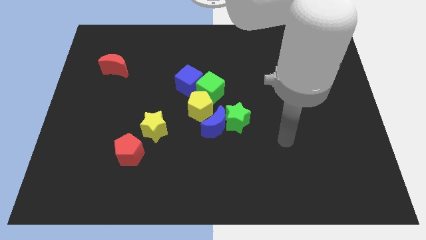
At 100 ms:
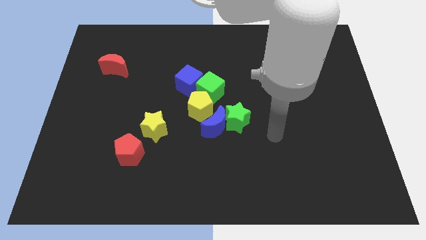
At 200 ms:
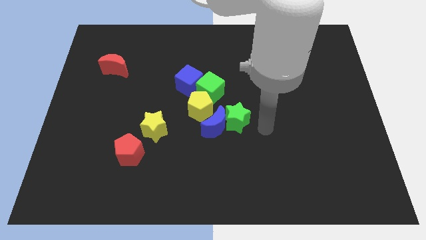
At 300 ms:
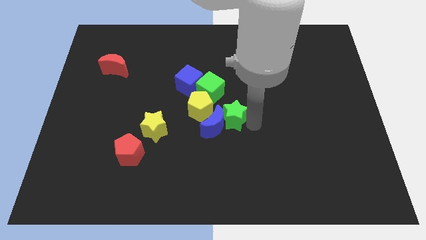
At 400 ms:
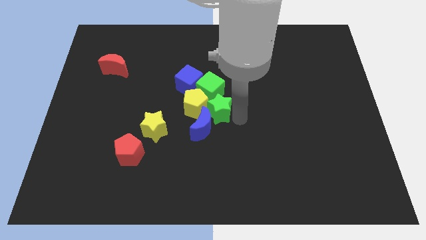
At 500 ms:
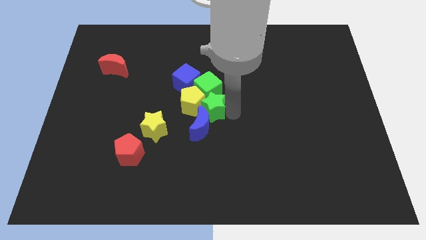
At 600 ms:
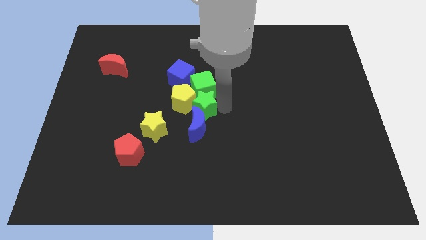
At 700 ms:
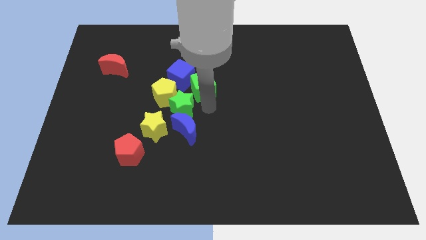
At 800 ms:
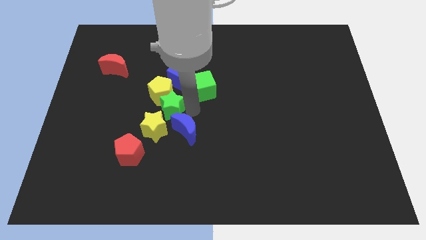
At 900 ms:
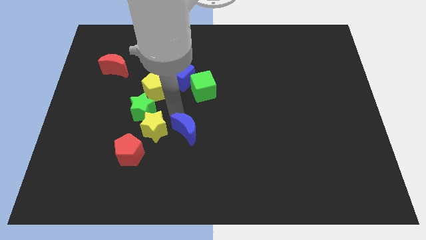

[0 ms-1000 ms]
move the blue moon away from the green star and yellow pentagon

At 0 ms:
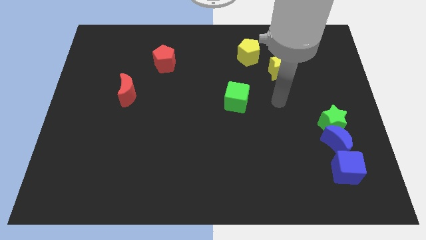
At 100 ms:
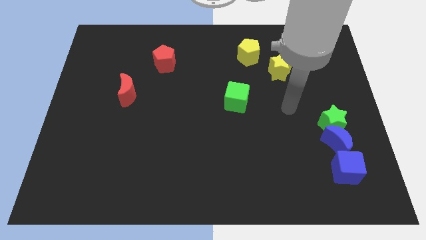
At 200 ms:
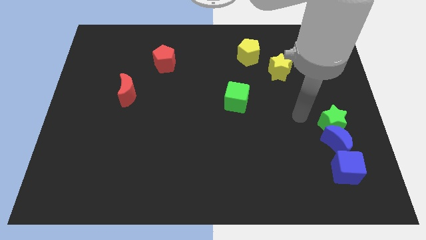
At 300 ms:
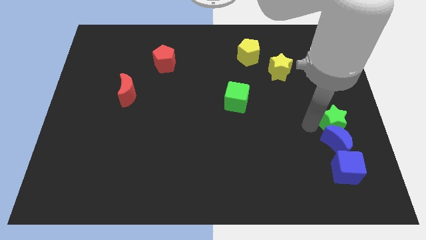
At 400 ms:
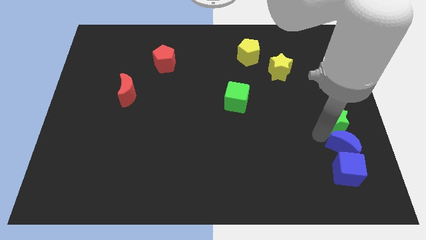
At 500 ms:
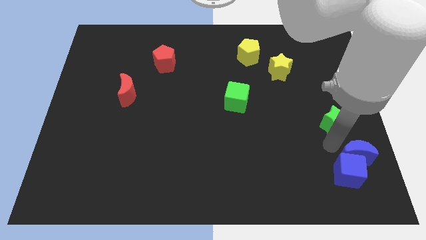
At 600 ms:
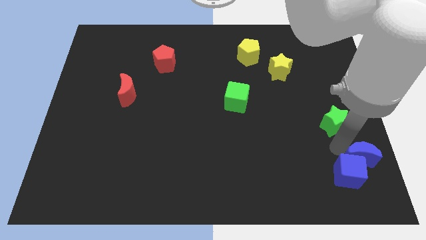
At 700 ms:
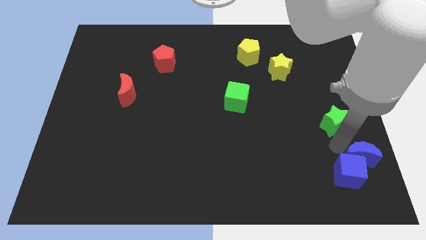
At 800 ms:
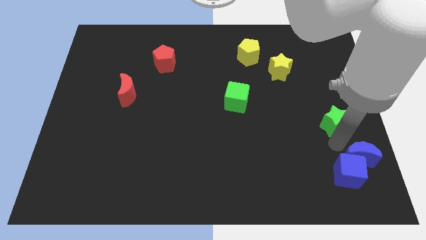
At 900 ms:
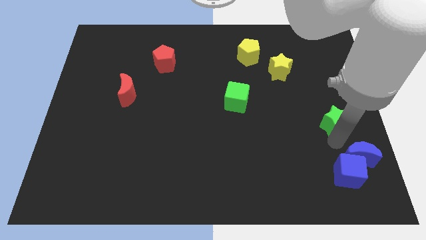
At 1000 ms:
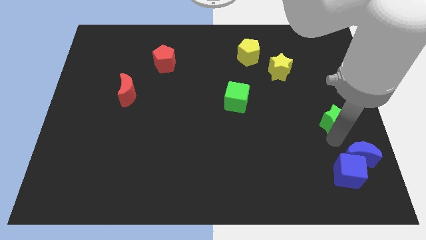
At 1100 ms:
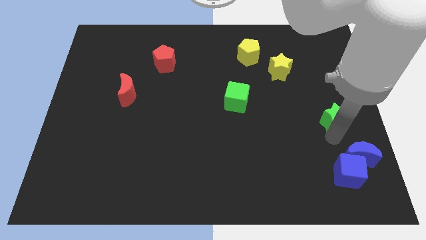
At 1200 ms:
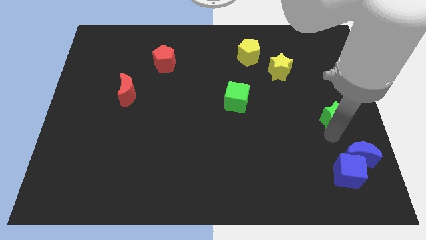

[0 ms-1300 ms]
pull the green star apart from the blue moon

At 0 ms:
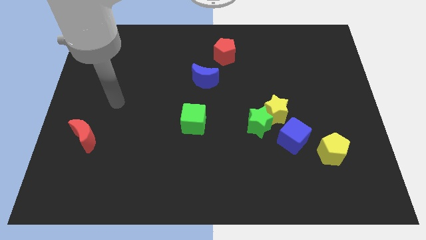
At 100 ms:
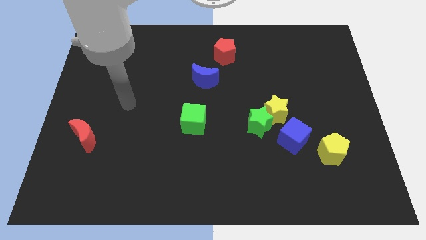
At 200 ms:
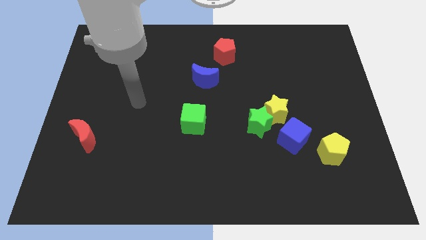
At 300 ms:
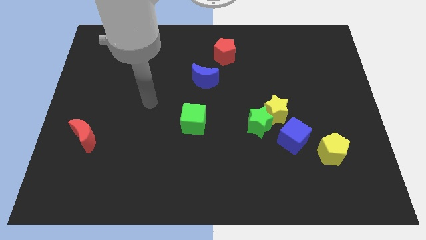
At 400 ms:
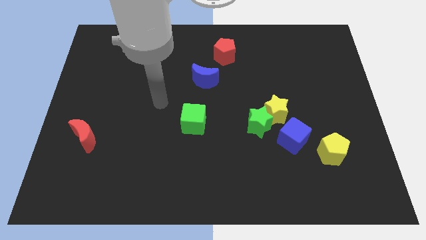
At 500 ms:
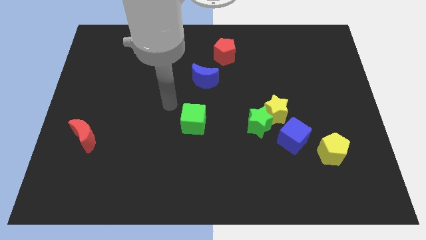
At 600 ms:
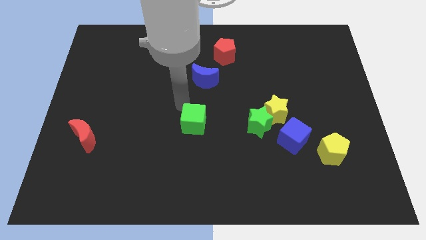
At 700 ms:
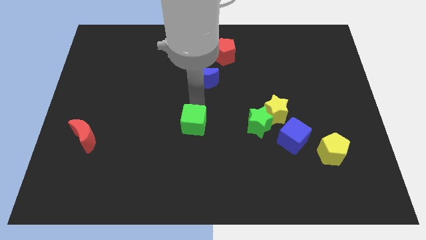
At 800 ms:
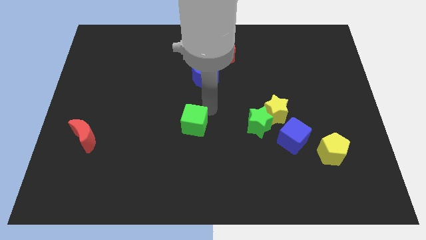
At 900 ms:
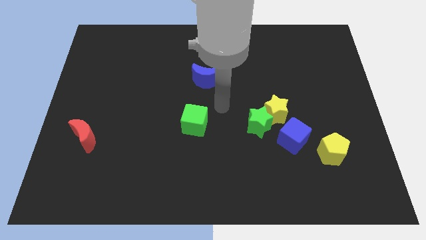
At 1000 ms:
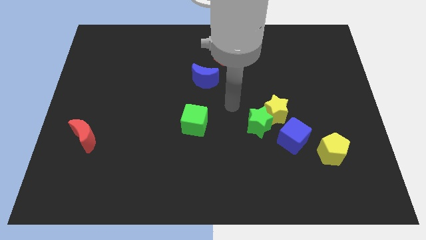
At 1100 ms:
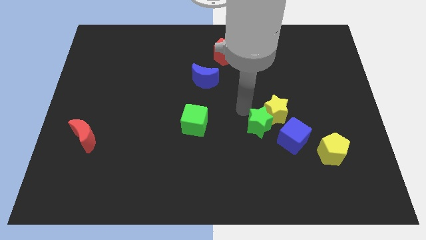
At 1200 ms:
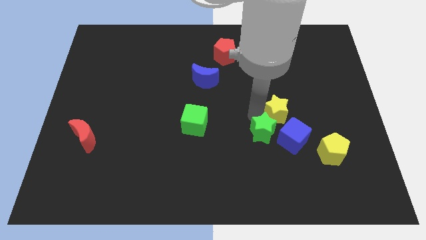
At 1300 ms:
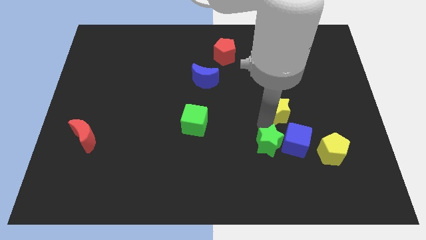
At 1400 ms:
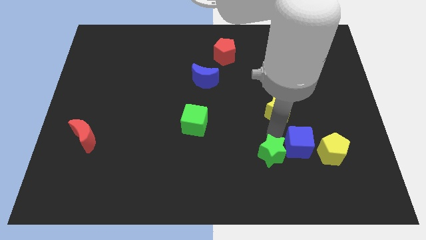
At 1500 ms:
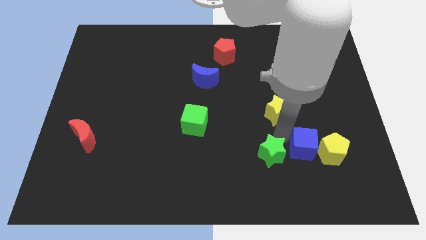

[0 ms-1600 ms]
pull the yellow star apart from the green star and blue cube

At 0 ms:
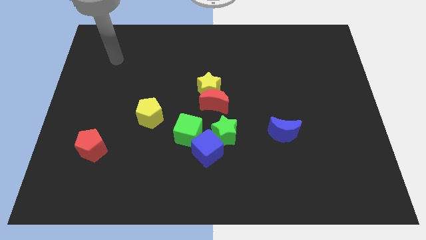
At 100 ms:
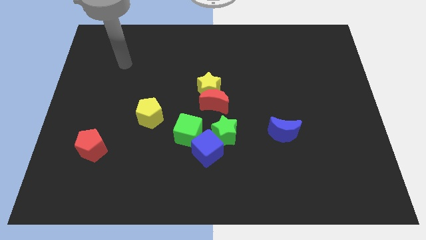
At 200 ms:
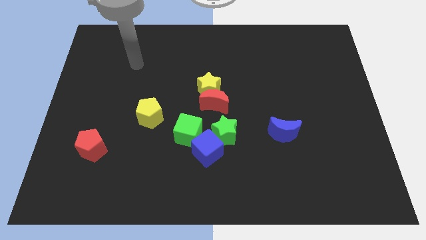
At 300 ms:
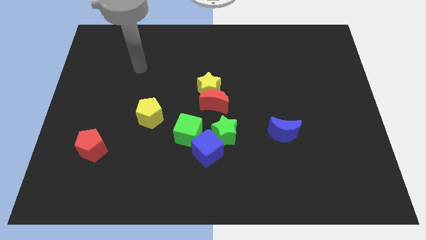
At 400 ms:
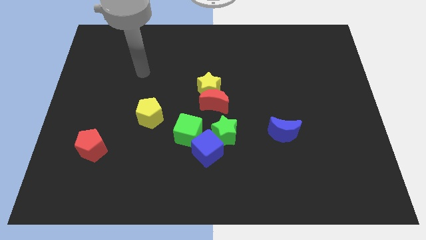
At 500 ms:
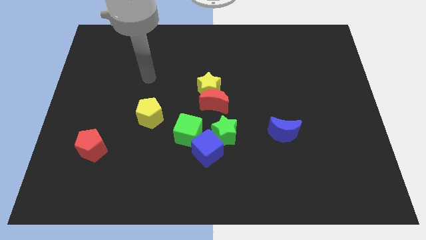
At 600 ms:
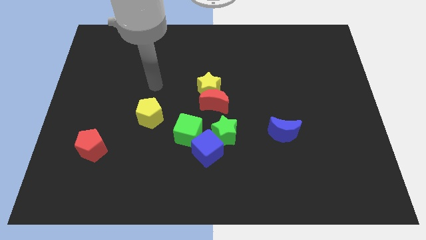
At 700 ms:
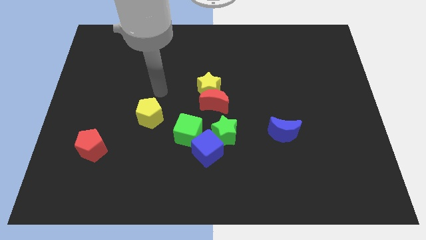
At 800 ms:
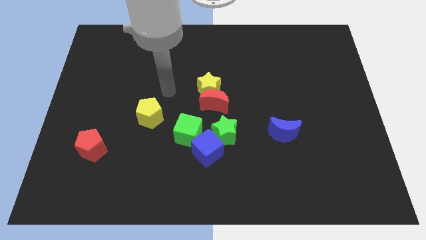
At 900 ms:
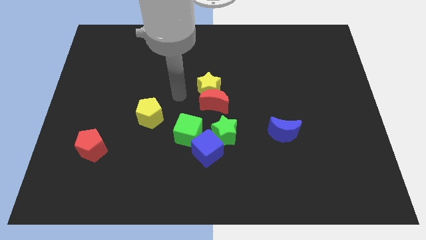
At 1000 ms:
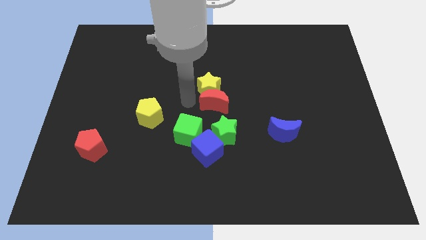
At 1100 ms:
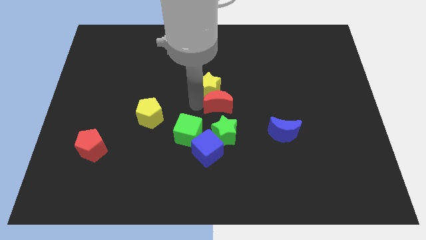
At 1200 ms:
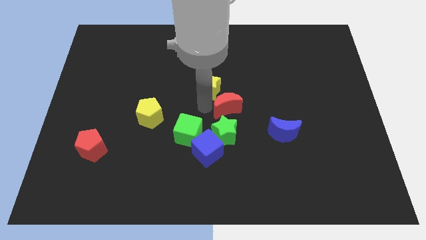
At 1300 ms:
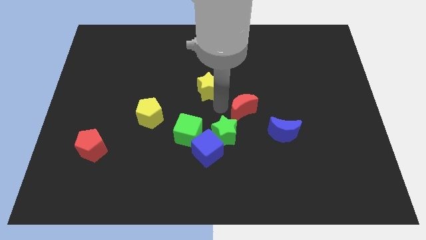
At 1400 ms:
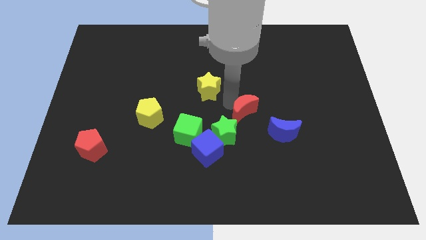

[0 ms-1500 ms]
separate the yellow star from the red moon

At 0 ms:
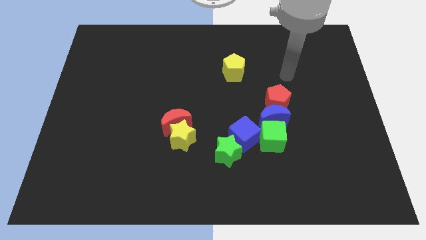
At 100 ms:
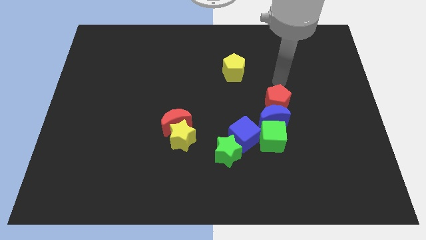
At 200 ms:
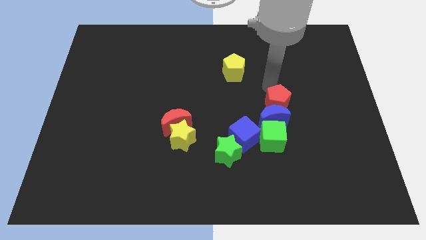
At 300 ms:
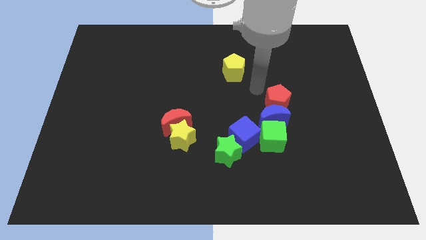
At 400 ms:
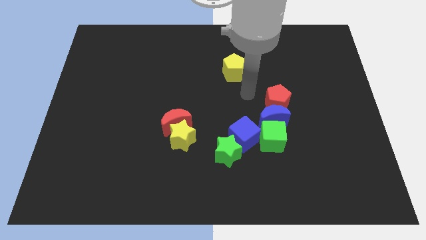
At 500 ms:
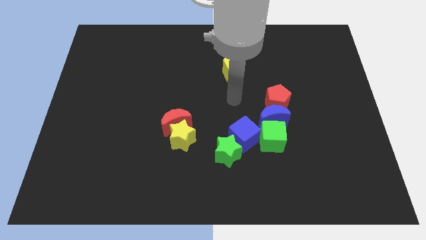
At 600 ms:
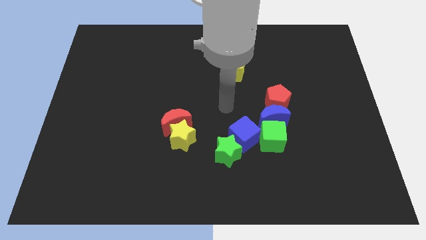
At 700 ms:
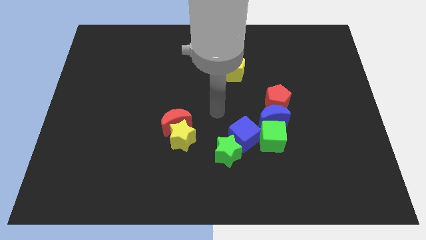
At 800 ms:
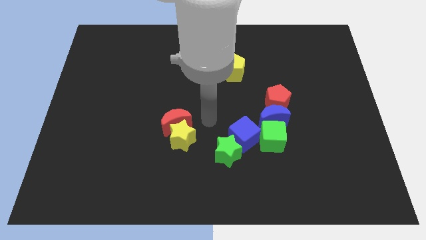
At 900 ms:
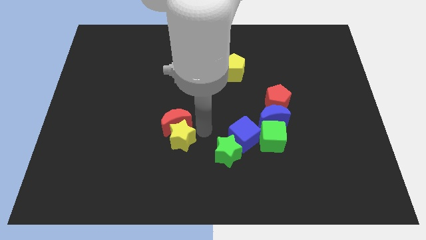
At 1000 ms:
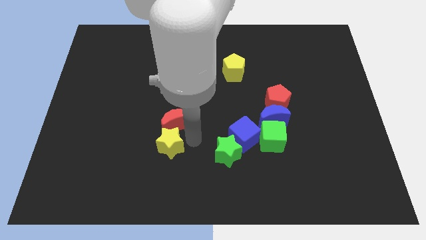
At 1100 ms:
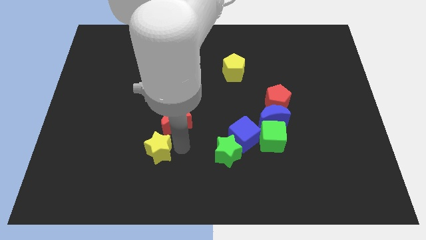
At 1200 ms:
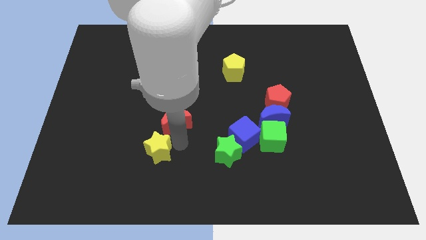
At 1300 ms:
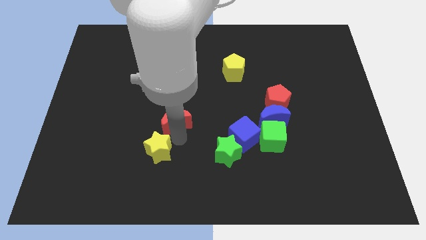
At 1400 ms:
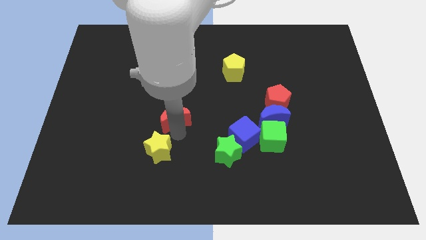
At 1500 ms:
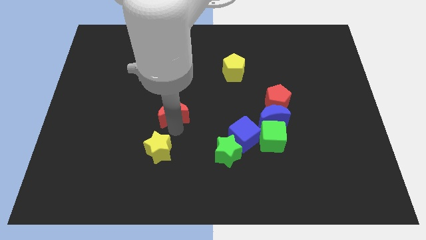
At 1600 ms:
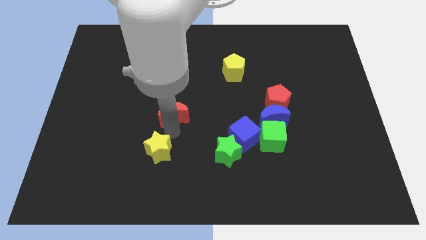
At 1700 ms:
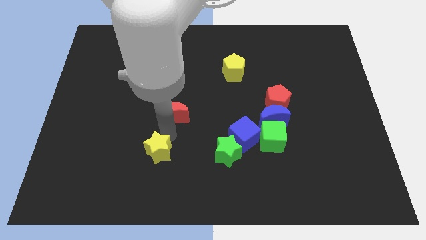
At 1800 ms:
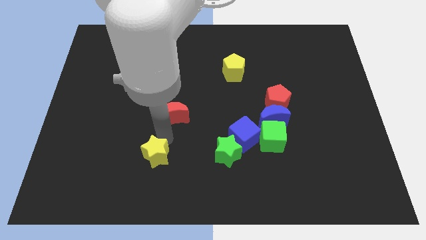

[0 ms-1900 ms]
pull the red moon apart from the yellow star

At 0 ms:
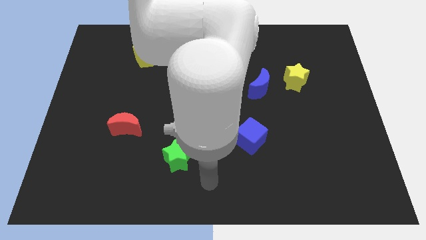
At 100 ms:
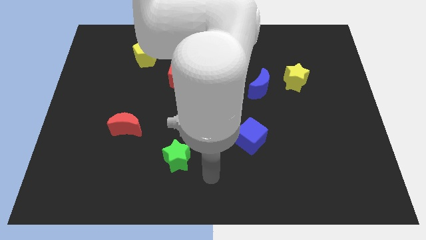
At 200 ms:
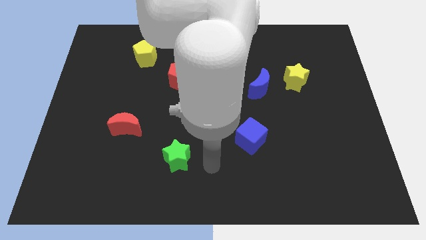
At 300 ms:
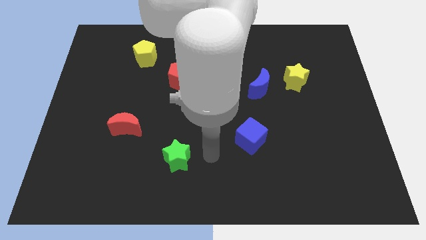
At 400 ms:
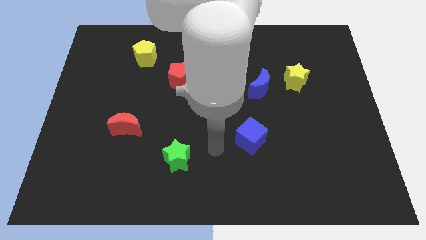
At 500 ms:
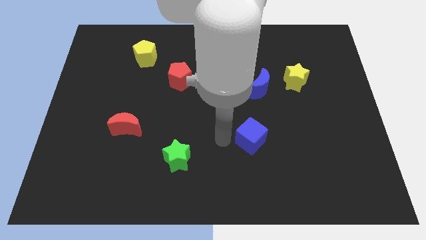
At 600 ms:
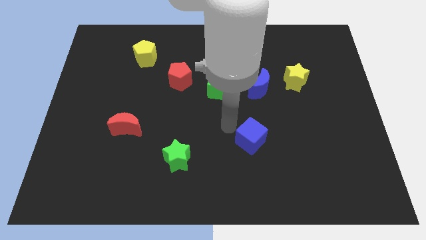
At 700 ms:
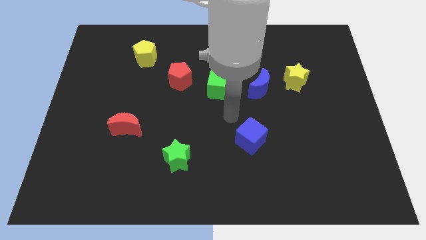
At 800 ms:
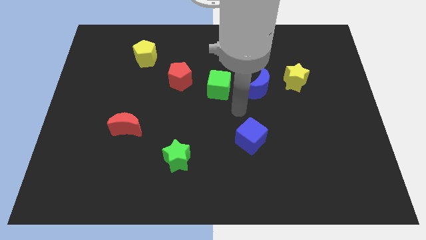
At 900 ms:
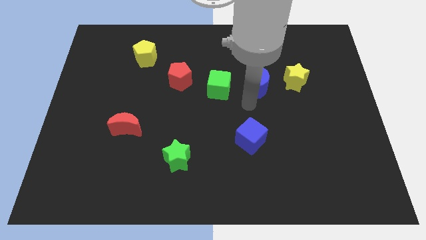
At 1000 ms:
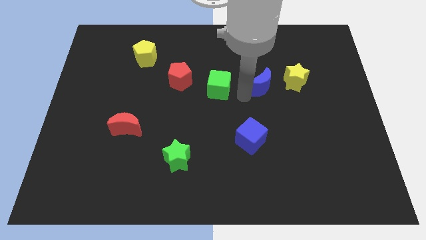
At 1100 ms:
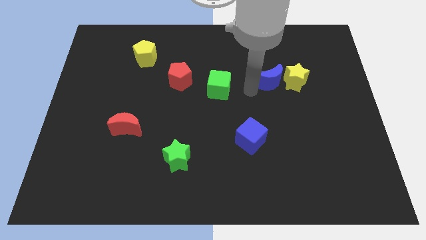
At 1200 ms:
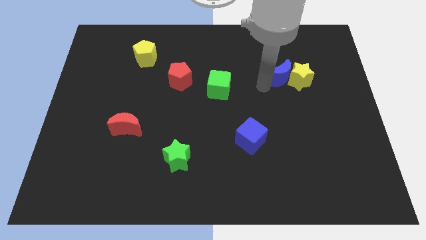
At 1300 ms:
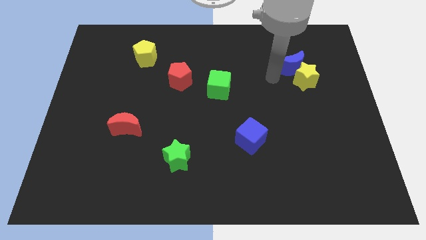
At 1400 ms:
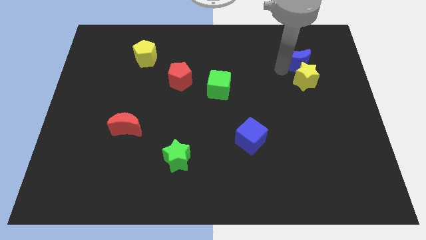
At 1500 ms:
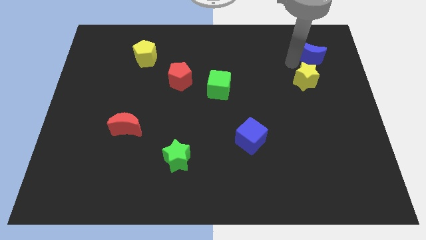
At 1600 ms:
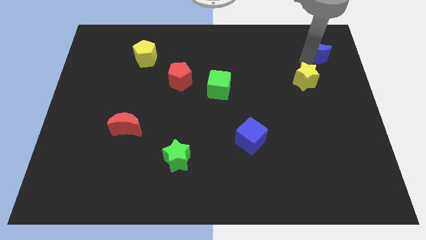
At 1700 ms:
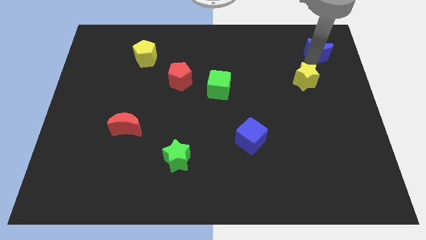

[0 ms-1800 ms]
pull the yellow star apart from the blue moon

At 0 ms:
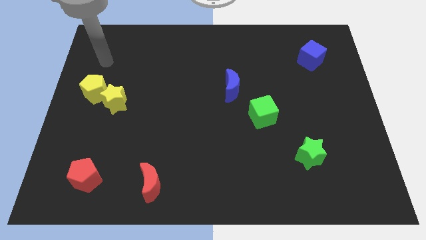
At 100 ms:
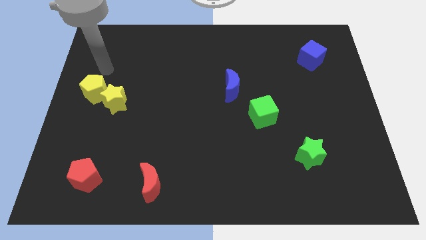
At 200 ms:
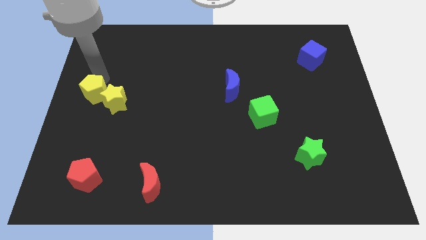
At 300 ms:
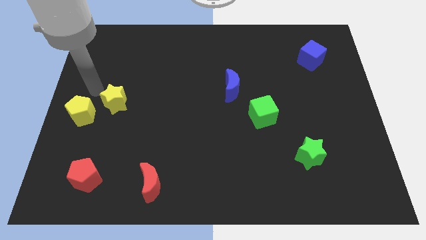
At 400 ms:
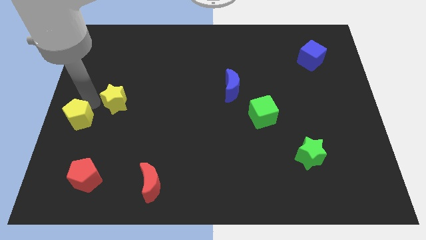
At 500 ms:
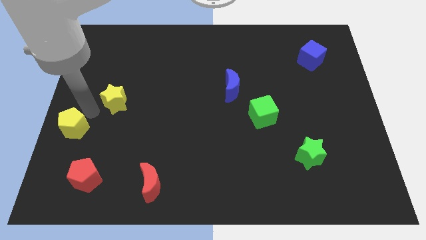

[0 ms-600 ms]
move the yellow star away from the yellow pentagon
